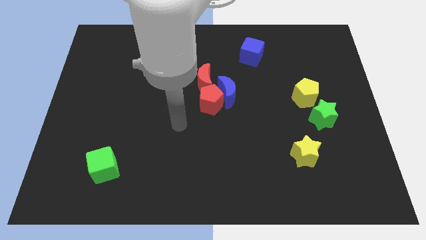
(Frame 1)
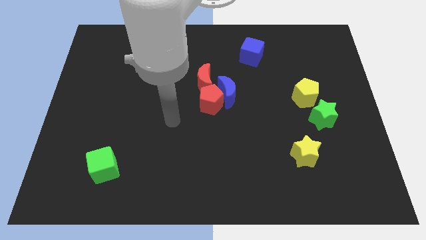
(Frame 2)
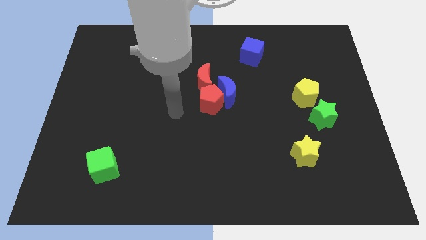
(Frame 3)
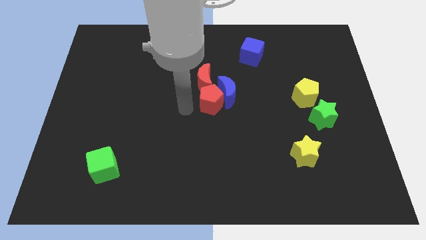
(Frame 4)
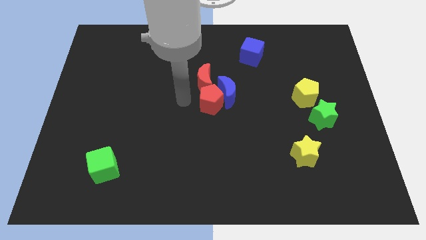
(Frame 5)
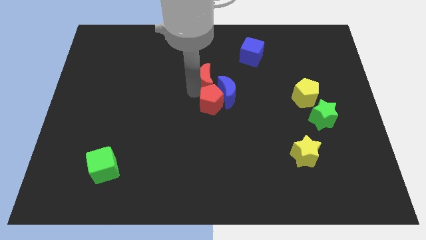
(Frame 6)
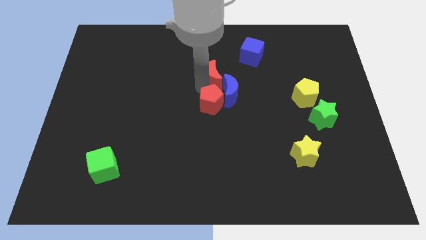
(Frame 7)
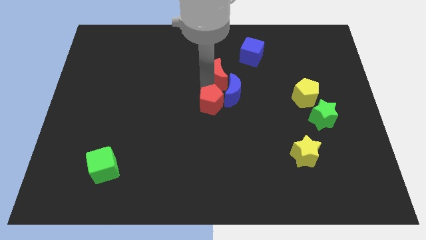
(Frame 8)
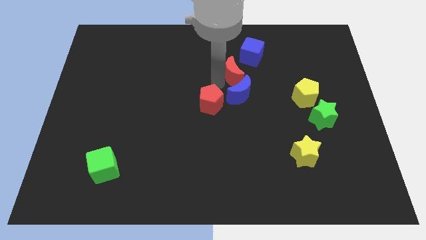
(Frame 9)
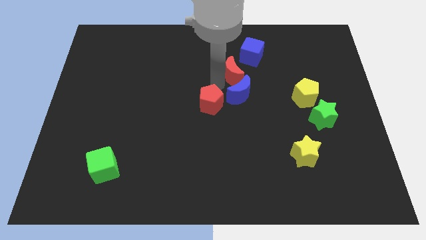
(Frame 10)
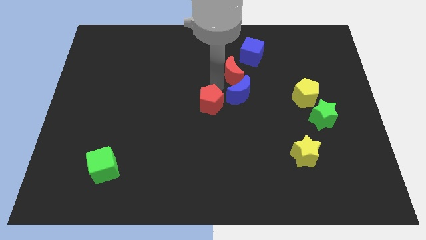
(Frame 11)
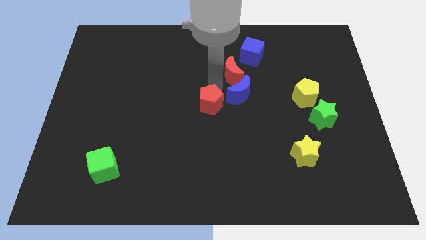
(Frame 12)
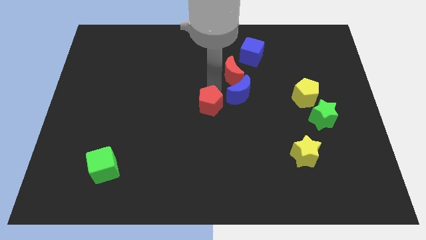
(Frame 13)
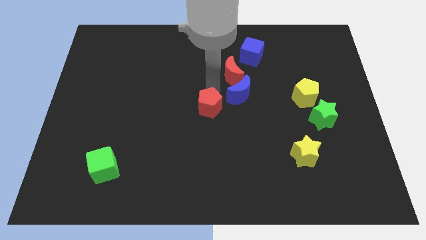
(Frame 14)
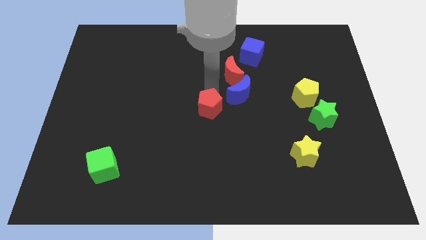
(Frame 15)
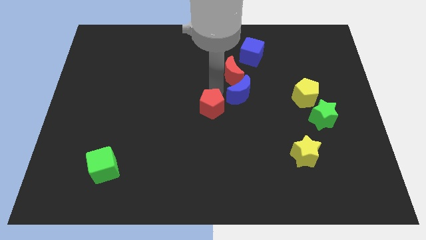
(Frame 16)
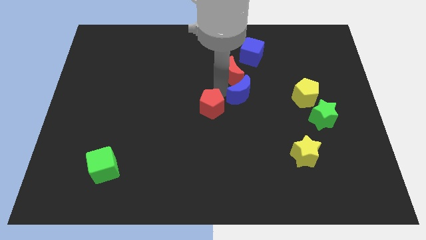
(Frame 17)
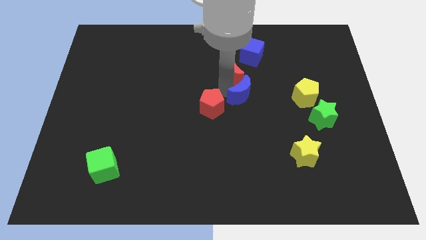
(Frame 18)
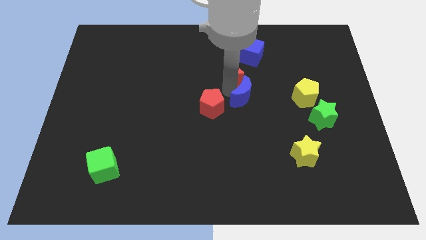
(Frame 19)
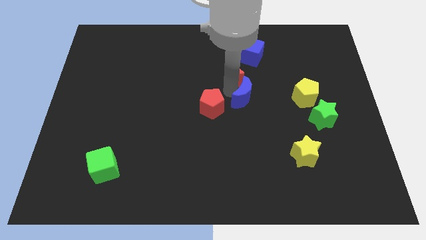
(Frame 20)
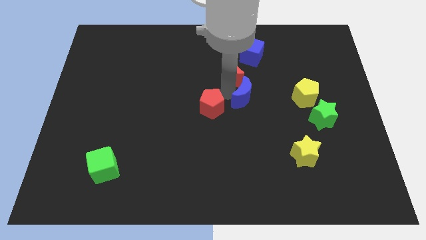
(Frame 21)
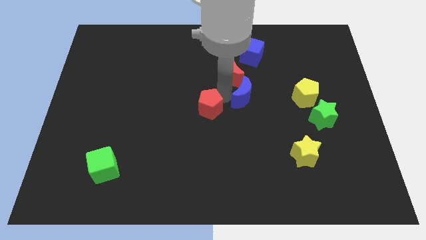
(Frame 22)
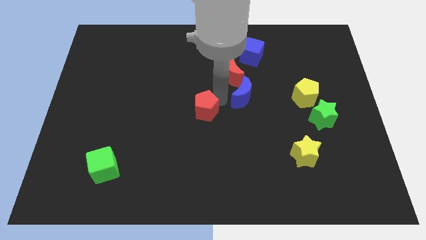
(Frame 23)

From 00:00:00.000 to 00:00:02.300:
pull the red pentagon apart from the blue moon and red moon

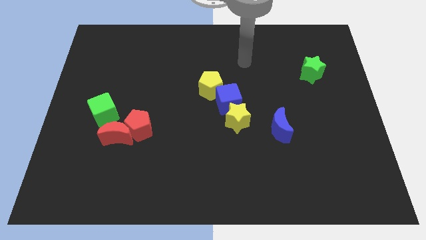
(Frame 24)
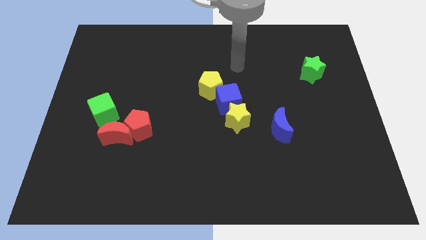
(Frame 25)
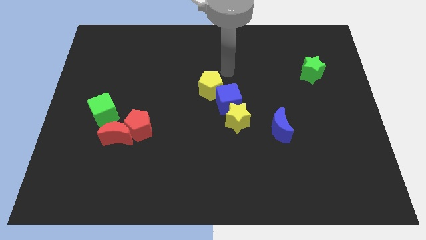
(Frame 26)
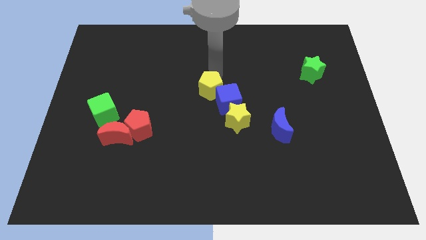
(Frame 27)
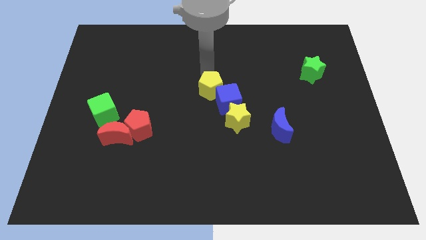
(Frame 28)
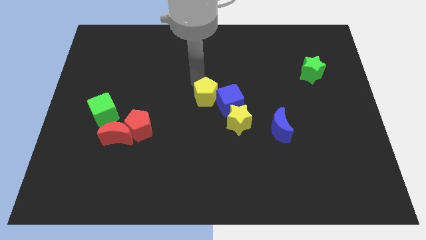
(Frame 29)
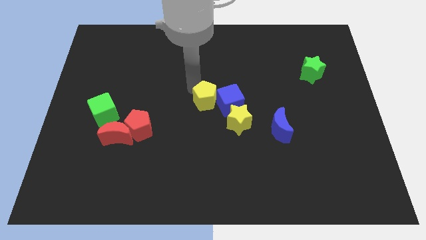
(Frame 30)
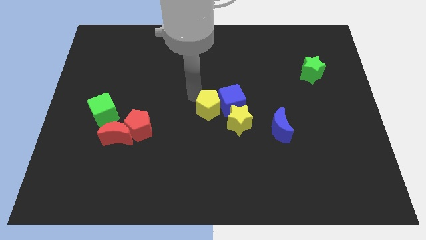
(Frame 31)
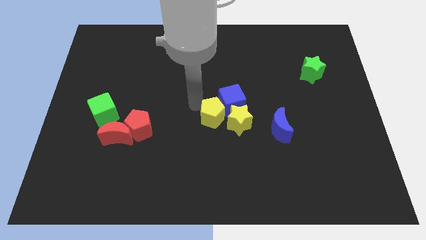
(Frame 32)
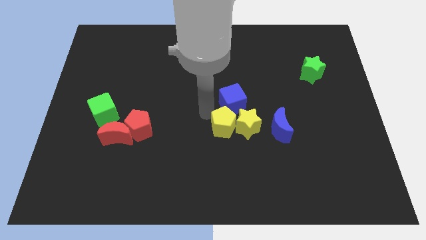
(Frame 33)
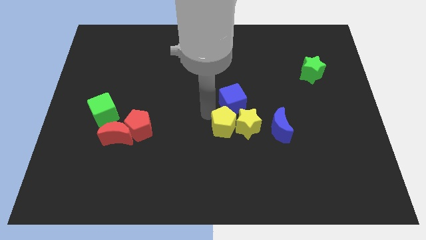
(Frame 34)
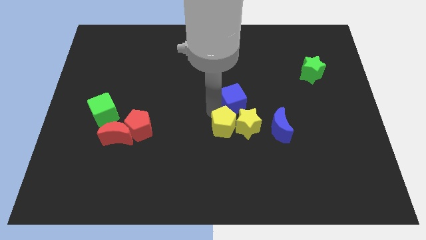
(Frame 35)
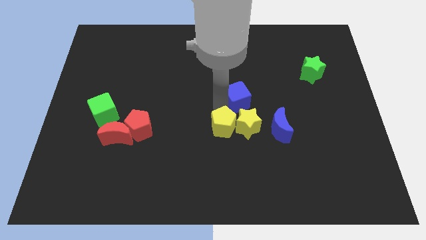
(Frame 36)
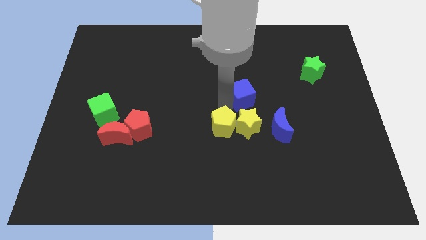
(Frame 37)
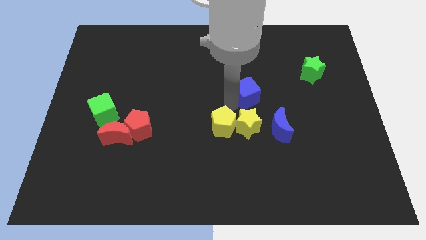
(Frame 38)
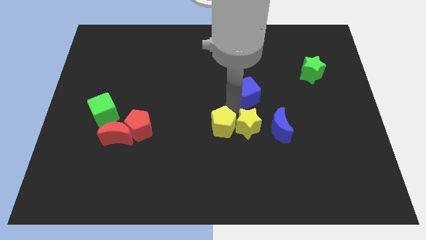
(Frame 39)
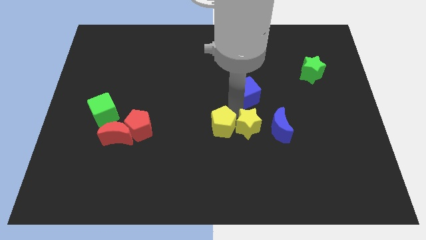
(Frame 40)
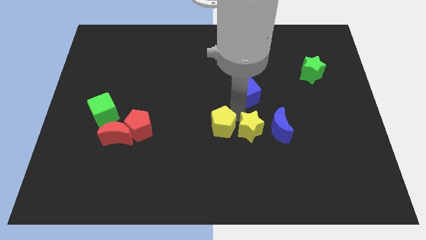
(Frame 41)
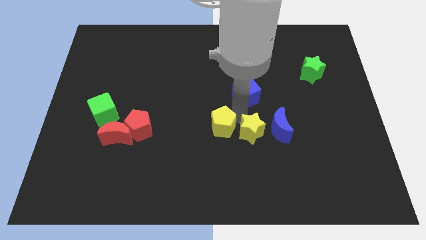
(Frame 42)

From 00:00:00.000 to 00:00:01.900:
move the blue cube away from the yellow star and yellow pentagon

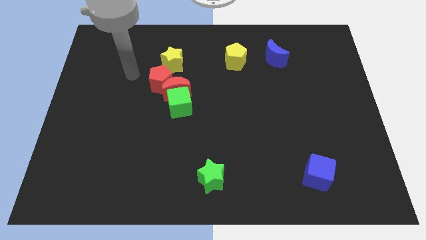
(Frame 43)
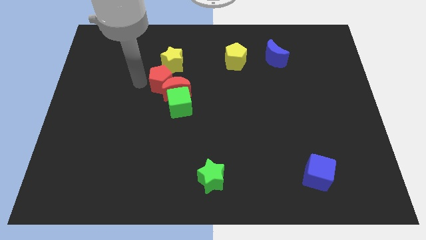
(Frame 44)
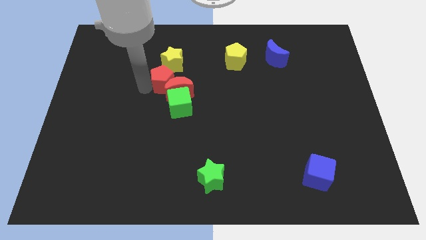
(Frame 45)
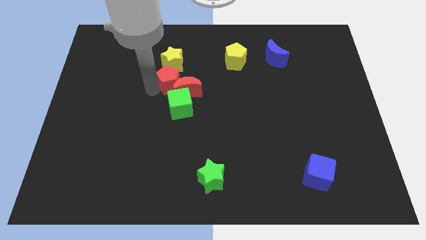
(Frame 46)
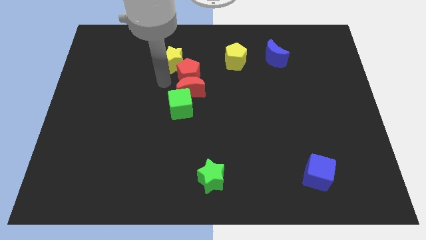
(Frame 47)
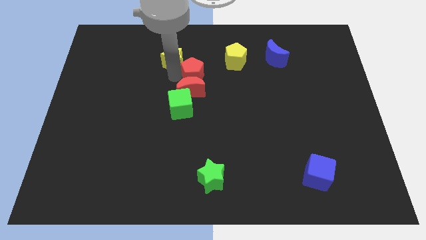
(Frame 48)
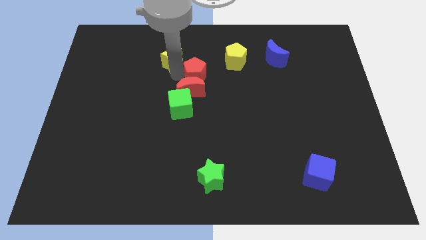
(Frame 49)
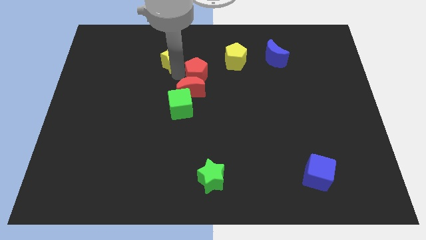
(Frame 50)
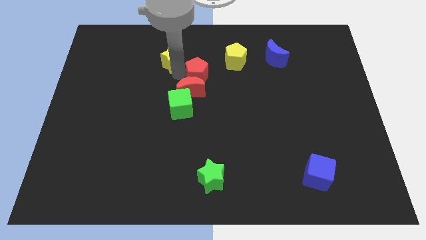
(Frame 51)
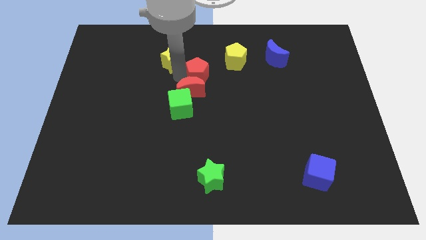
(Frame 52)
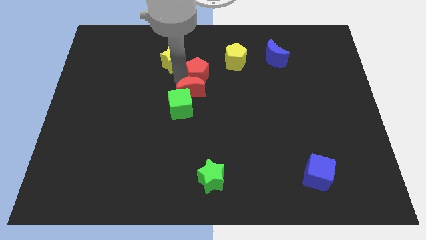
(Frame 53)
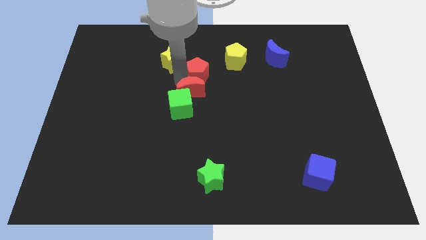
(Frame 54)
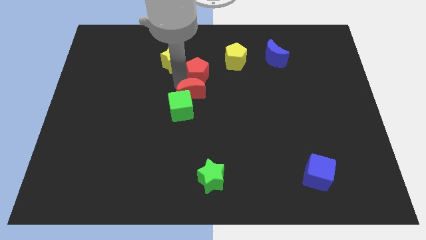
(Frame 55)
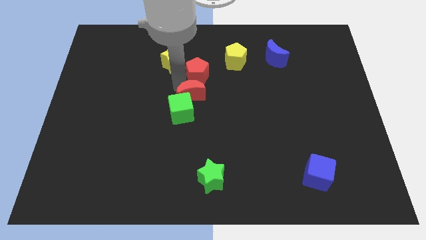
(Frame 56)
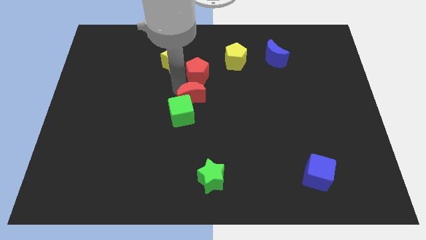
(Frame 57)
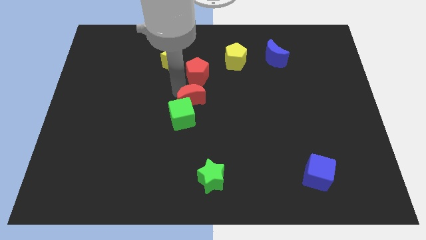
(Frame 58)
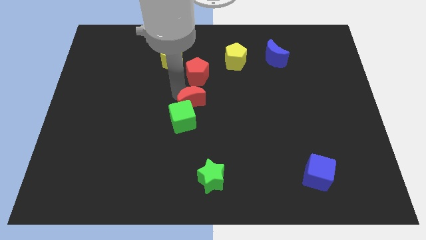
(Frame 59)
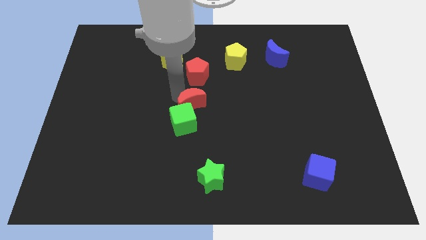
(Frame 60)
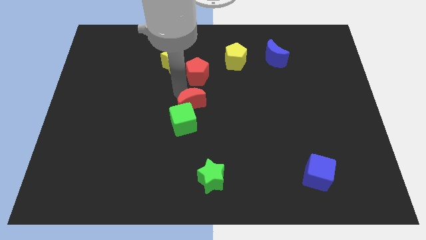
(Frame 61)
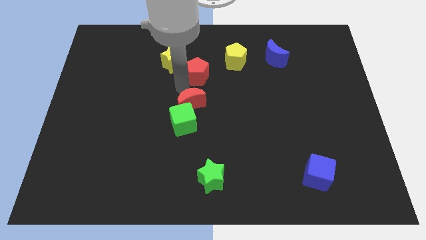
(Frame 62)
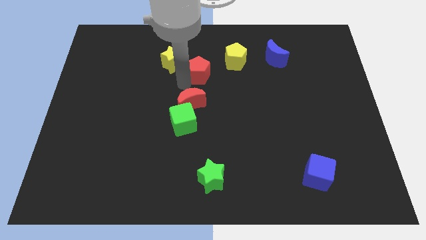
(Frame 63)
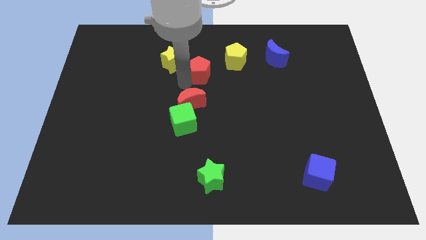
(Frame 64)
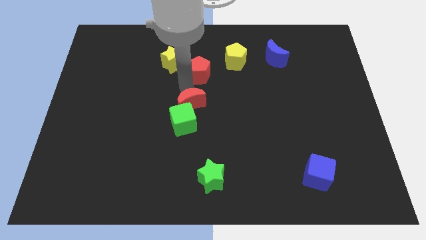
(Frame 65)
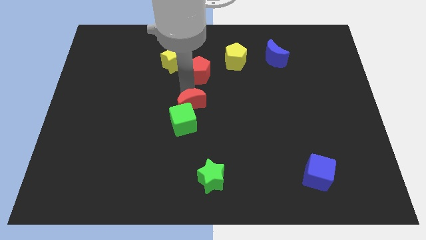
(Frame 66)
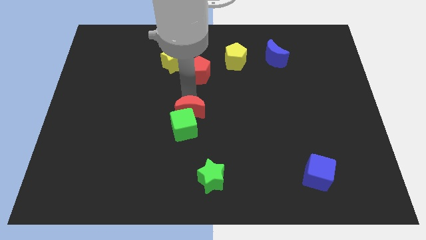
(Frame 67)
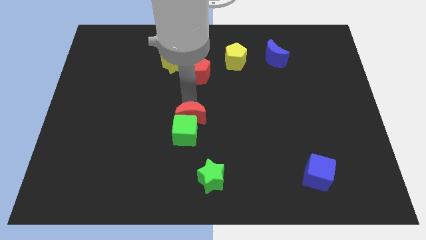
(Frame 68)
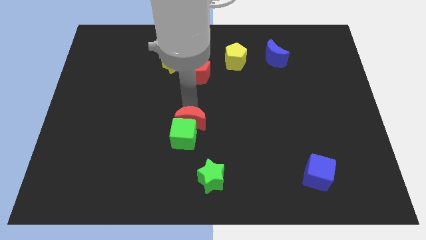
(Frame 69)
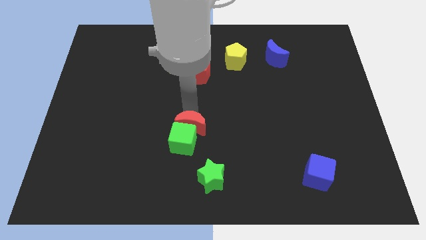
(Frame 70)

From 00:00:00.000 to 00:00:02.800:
move the red moon away from the green cube, red pentagon, and yellow star

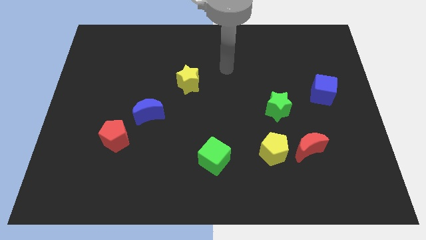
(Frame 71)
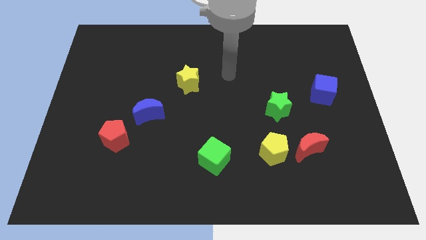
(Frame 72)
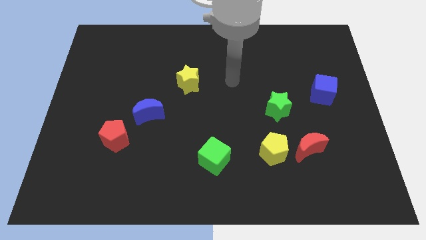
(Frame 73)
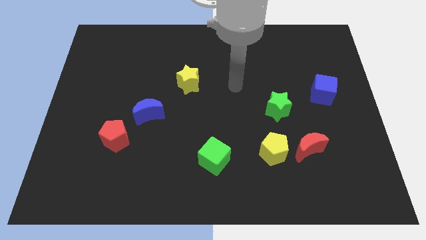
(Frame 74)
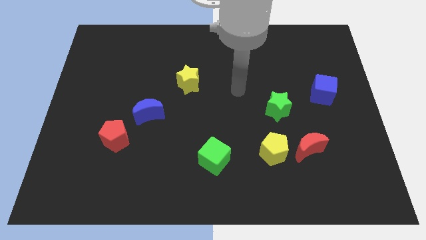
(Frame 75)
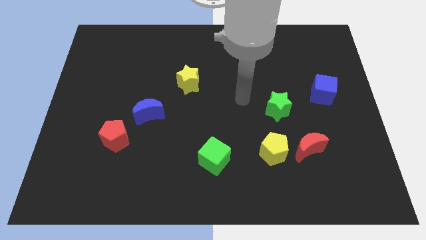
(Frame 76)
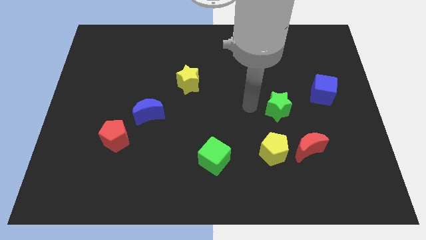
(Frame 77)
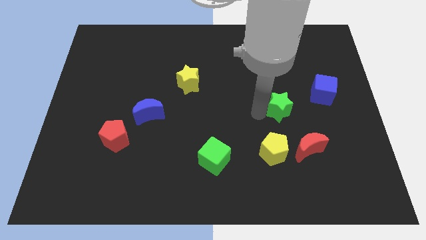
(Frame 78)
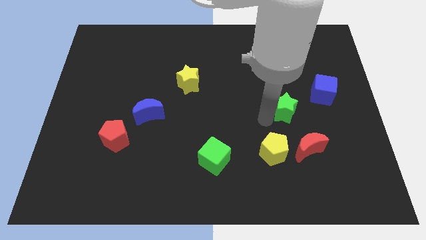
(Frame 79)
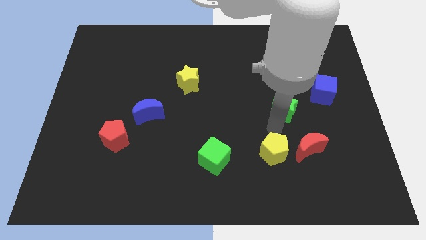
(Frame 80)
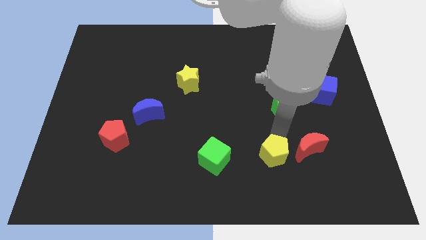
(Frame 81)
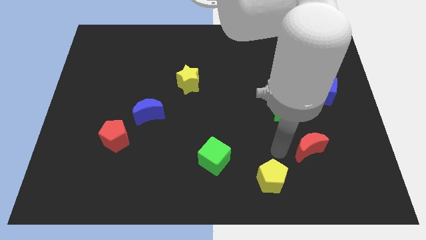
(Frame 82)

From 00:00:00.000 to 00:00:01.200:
pull the red moon apart from the yellow pentagon

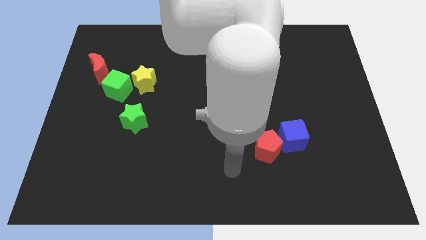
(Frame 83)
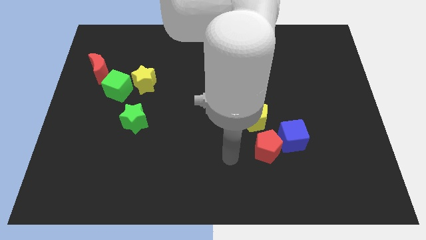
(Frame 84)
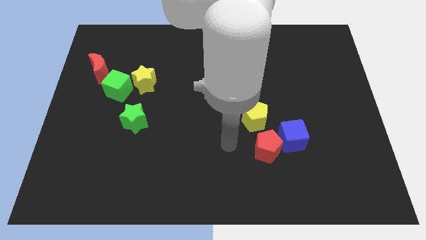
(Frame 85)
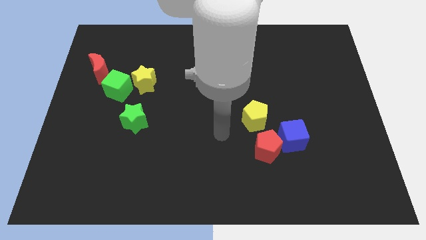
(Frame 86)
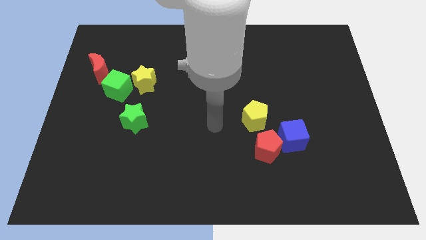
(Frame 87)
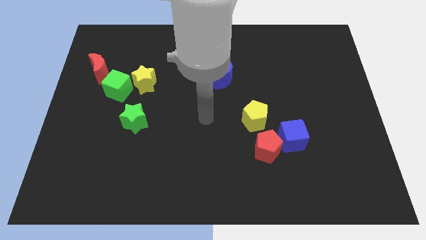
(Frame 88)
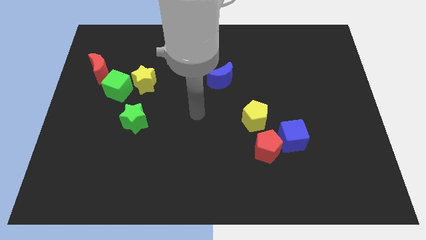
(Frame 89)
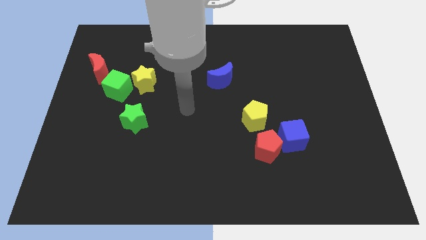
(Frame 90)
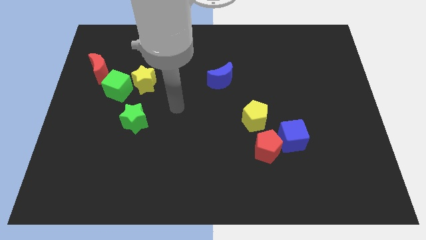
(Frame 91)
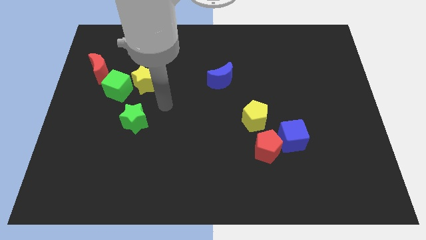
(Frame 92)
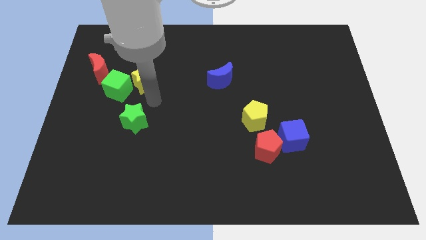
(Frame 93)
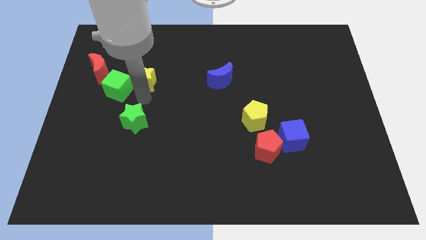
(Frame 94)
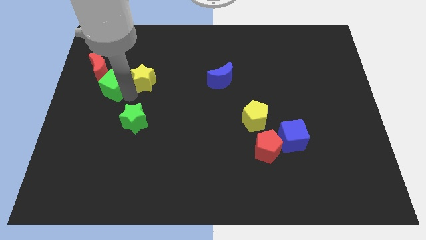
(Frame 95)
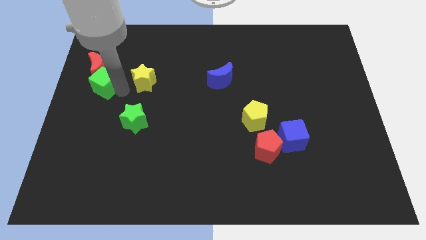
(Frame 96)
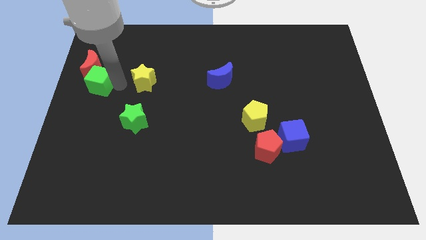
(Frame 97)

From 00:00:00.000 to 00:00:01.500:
pull the yellow star apart from the green cube
